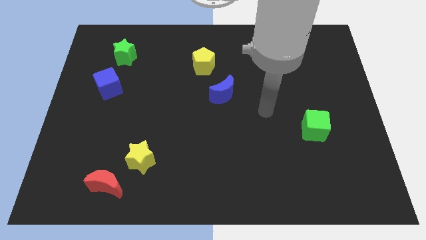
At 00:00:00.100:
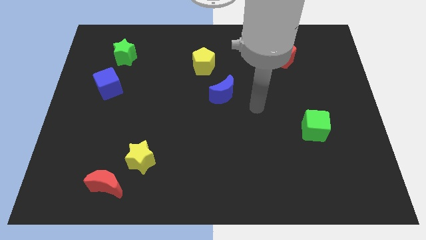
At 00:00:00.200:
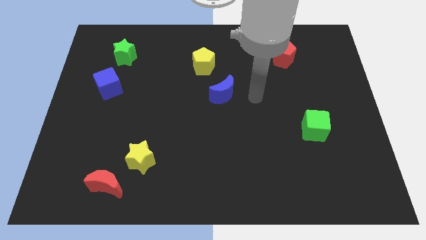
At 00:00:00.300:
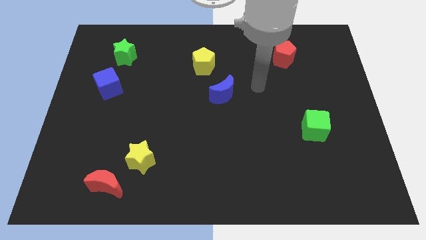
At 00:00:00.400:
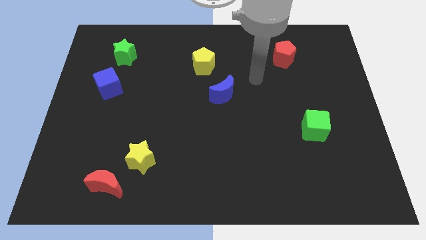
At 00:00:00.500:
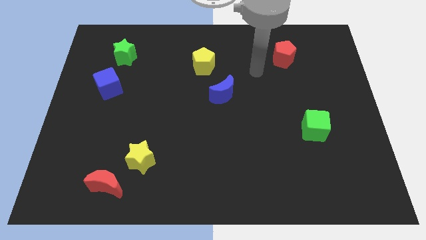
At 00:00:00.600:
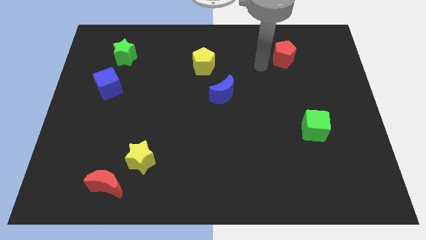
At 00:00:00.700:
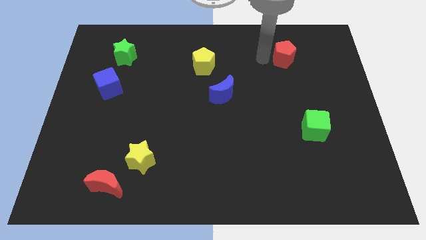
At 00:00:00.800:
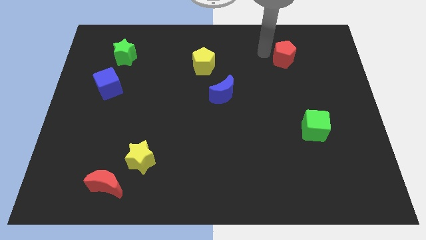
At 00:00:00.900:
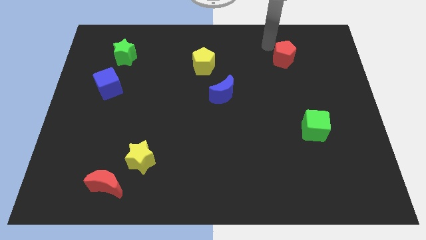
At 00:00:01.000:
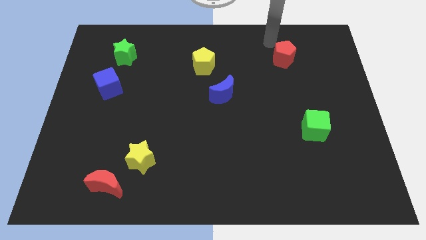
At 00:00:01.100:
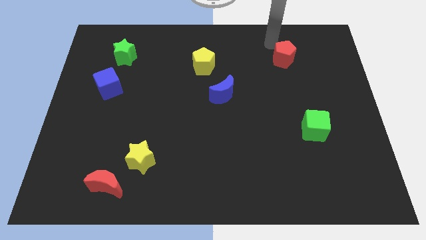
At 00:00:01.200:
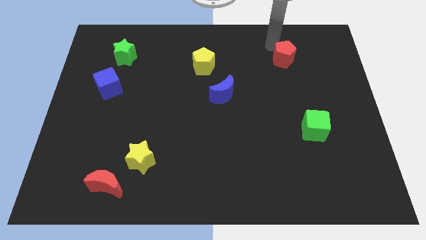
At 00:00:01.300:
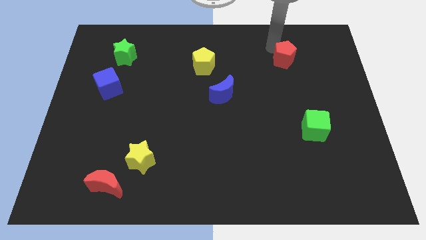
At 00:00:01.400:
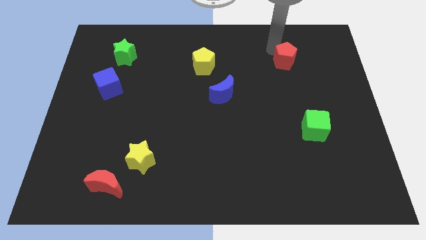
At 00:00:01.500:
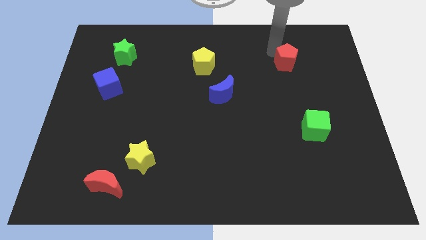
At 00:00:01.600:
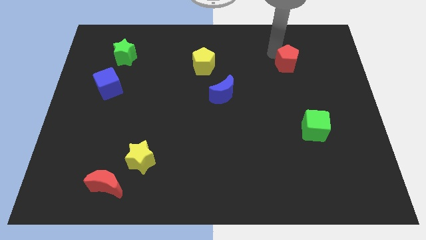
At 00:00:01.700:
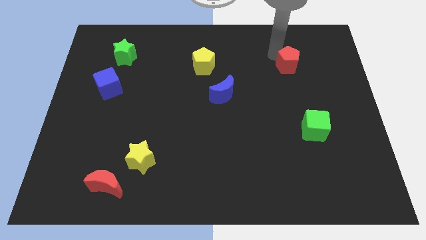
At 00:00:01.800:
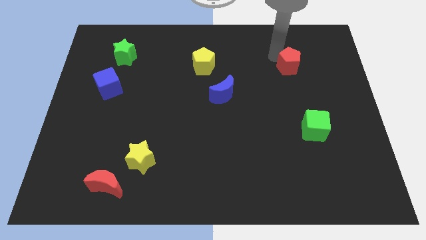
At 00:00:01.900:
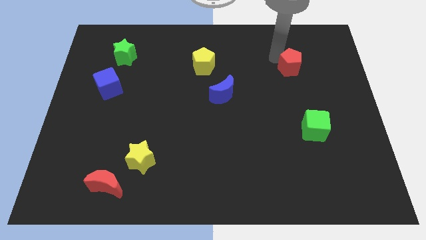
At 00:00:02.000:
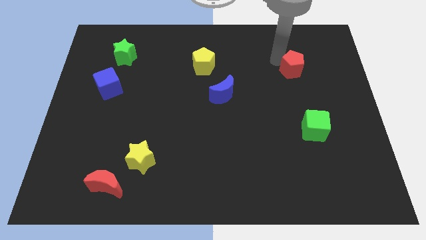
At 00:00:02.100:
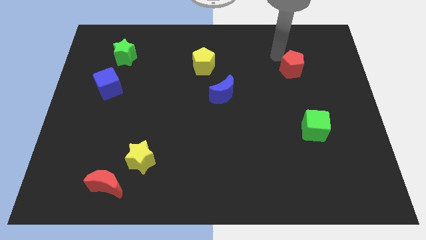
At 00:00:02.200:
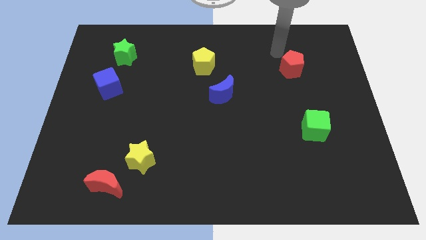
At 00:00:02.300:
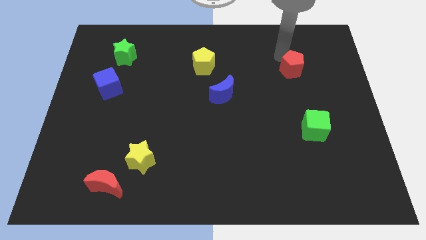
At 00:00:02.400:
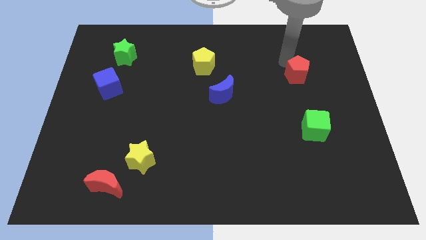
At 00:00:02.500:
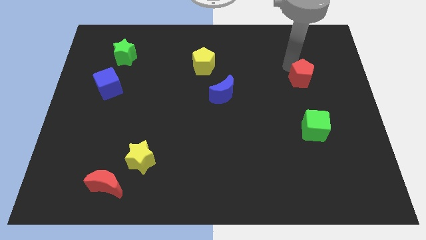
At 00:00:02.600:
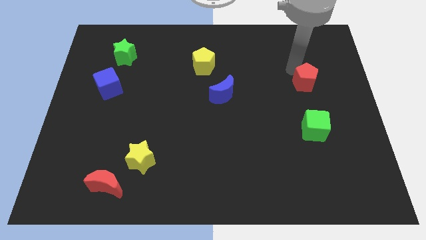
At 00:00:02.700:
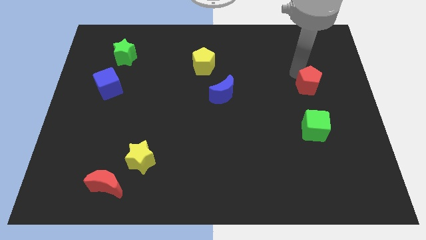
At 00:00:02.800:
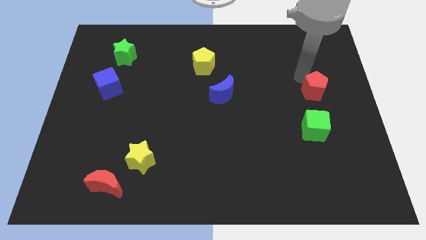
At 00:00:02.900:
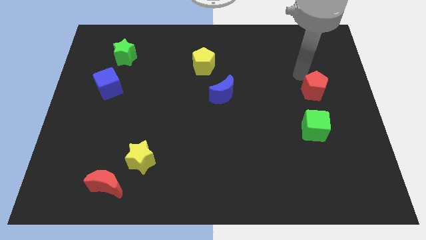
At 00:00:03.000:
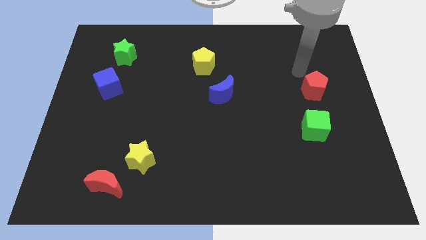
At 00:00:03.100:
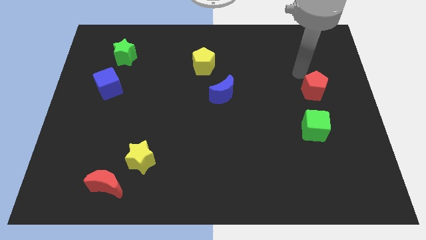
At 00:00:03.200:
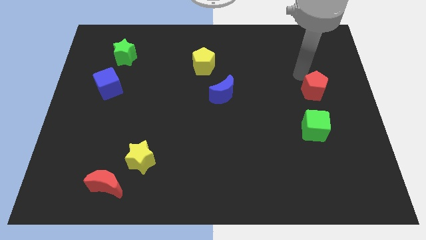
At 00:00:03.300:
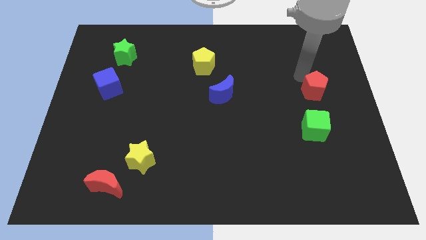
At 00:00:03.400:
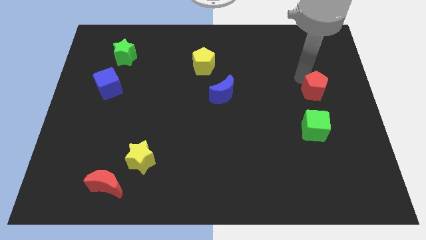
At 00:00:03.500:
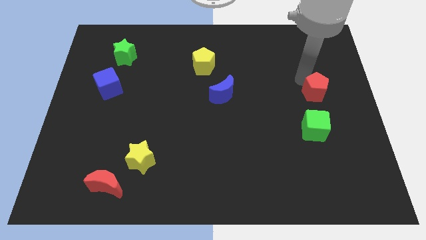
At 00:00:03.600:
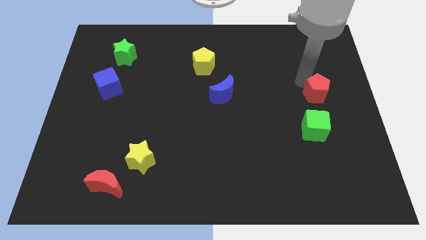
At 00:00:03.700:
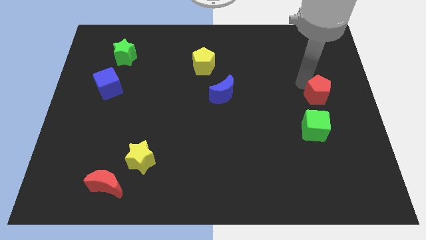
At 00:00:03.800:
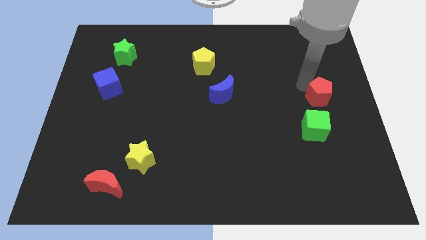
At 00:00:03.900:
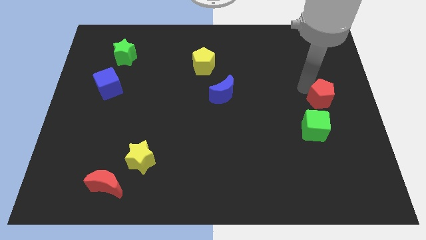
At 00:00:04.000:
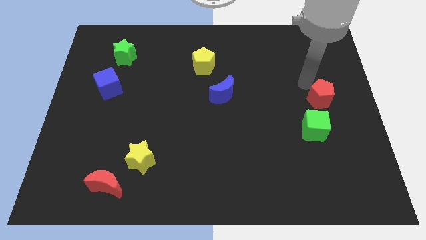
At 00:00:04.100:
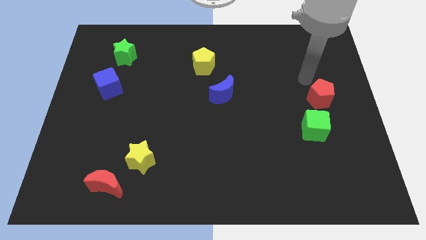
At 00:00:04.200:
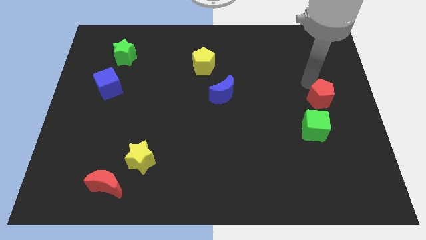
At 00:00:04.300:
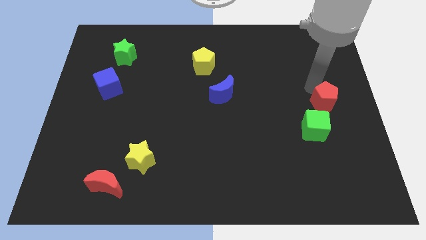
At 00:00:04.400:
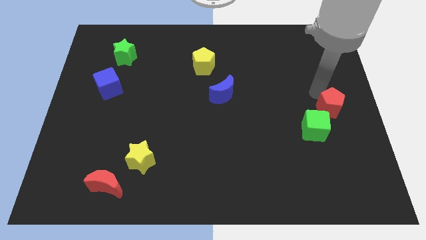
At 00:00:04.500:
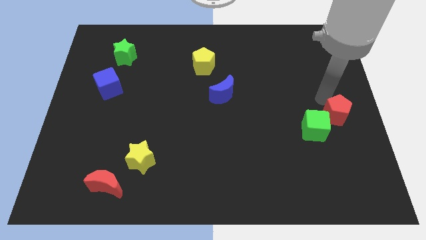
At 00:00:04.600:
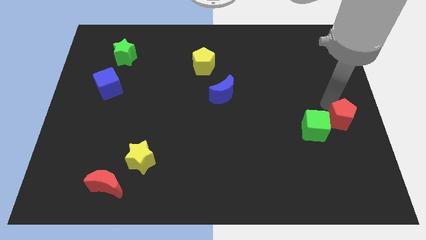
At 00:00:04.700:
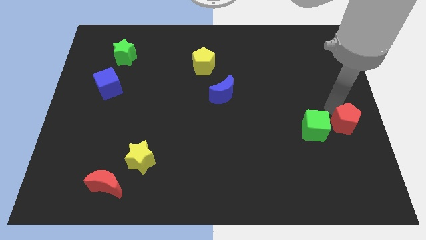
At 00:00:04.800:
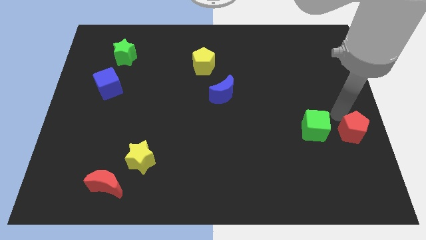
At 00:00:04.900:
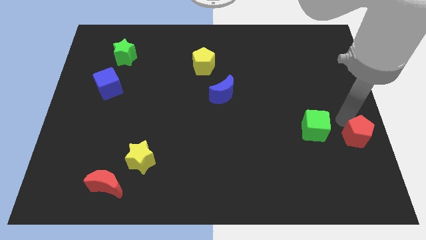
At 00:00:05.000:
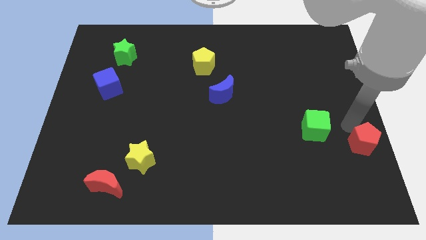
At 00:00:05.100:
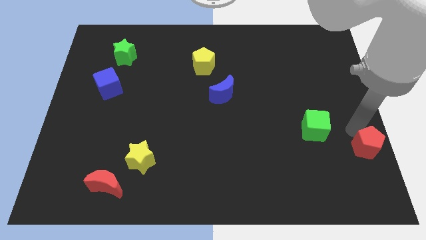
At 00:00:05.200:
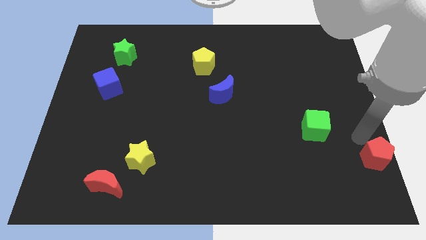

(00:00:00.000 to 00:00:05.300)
slide the red pentagon to the bottom right of the board

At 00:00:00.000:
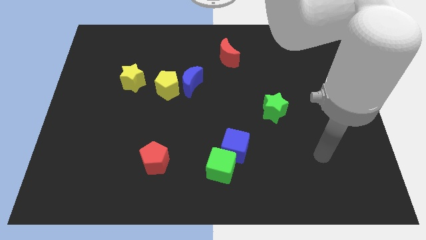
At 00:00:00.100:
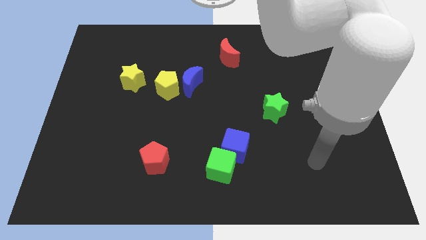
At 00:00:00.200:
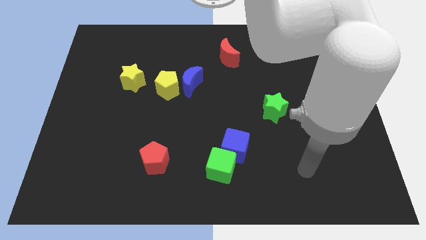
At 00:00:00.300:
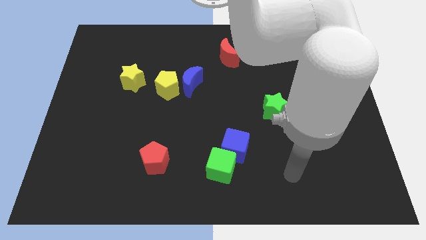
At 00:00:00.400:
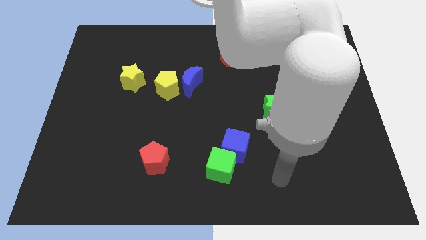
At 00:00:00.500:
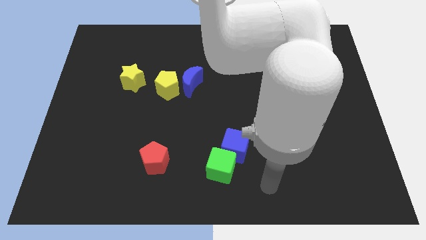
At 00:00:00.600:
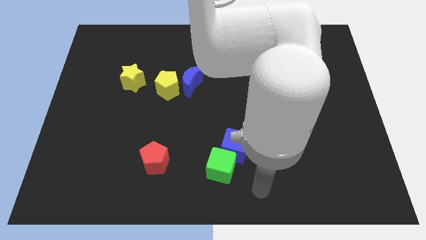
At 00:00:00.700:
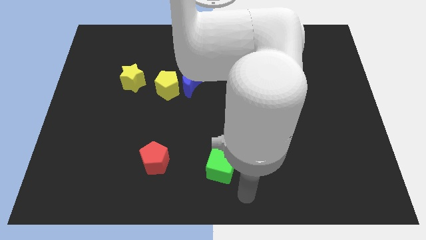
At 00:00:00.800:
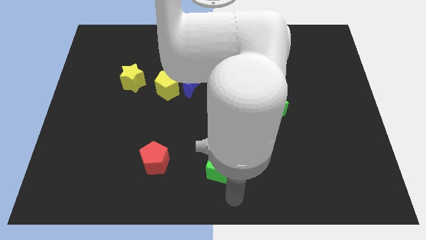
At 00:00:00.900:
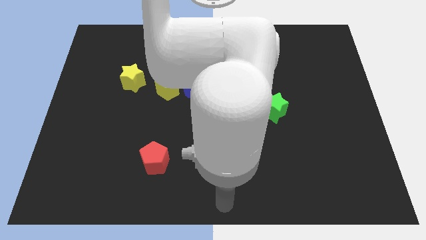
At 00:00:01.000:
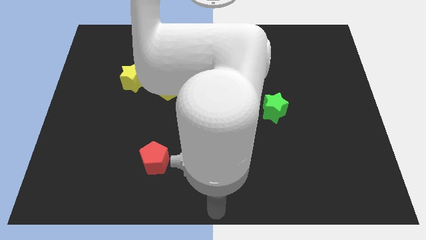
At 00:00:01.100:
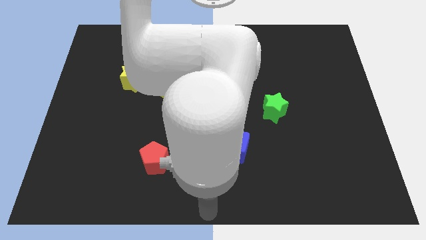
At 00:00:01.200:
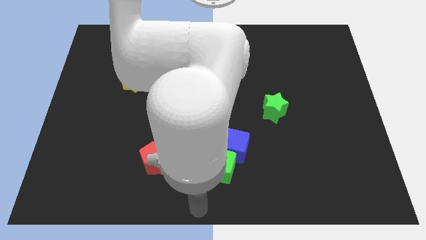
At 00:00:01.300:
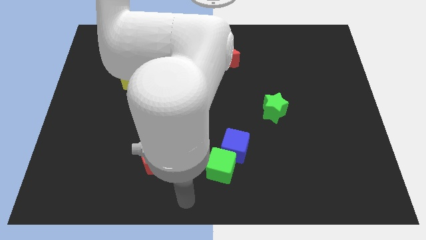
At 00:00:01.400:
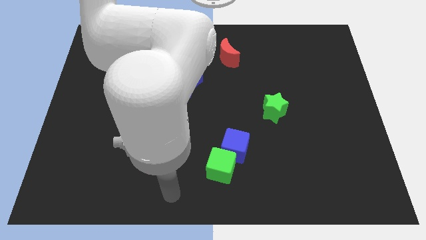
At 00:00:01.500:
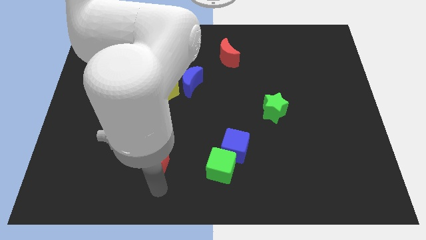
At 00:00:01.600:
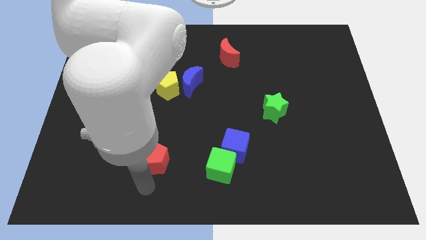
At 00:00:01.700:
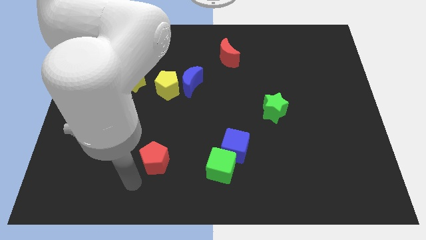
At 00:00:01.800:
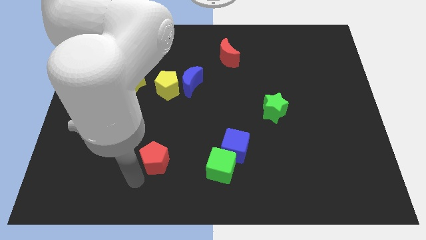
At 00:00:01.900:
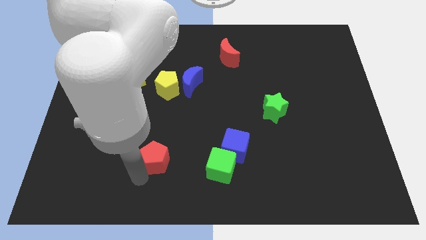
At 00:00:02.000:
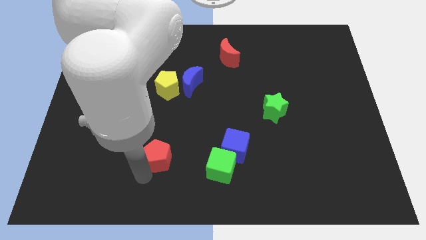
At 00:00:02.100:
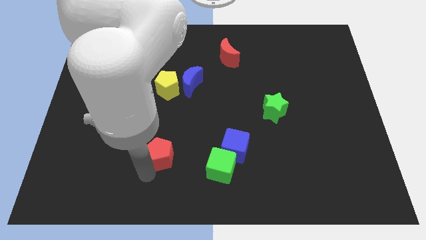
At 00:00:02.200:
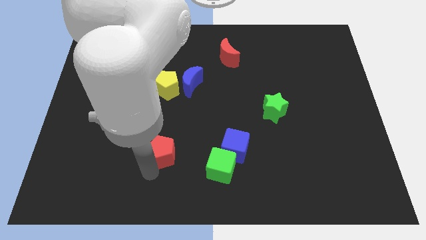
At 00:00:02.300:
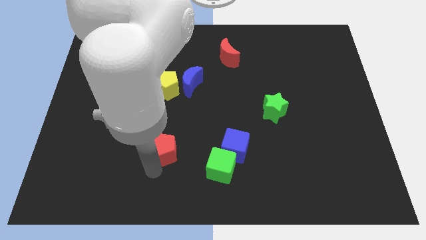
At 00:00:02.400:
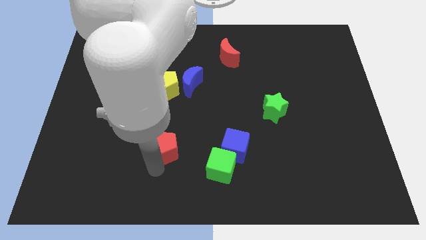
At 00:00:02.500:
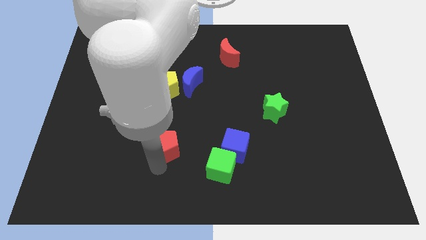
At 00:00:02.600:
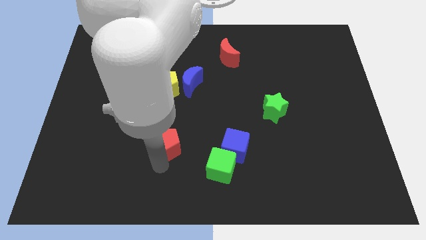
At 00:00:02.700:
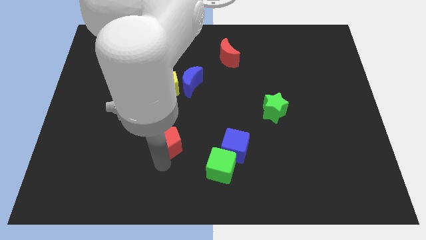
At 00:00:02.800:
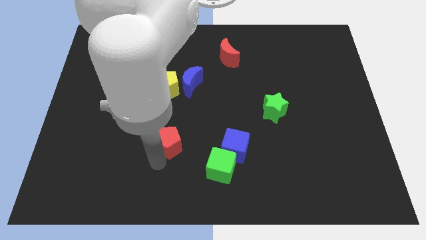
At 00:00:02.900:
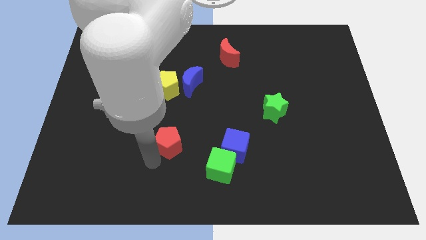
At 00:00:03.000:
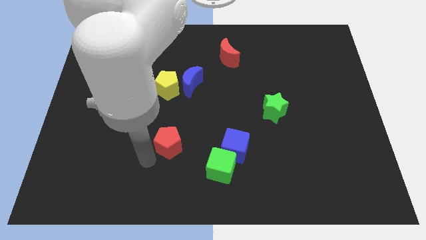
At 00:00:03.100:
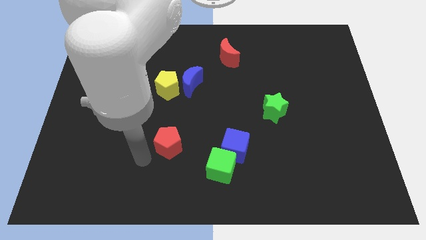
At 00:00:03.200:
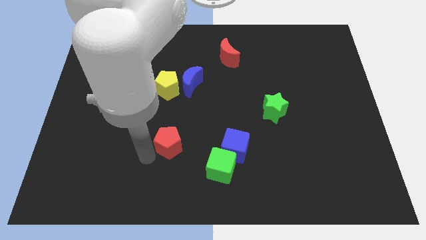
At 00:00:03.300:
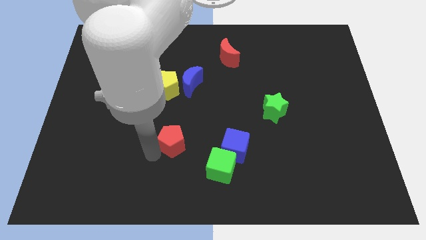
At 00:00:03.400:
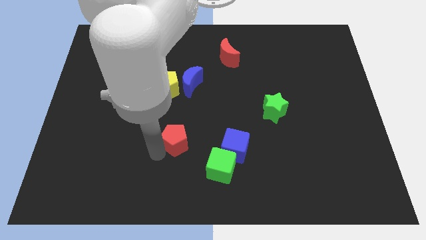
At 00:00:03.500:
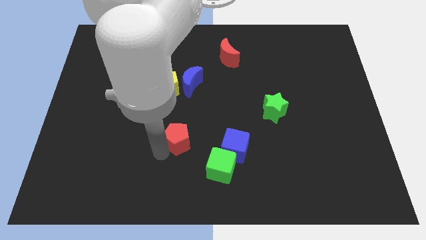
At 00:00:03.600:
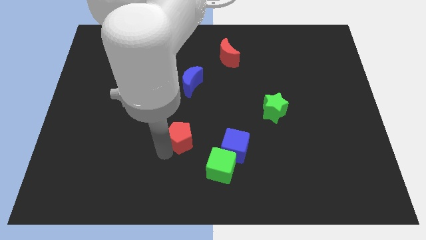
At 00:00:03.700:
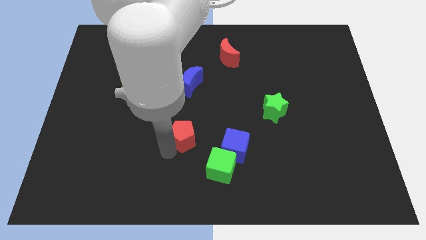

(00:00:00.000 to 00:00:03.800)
put the red pentagon to the center of the board
